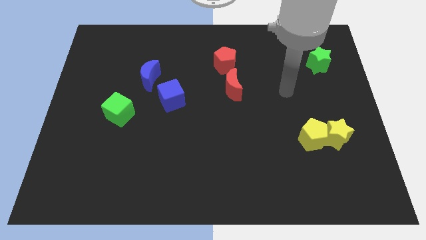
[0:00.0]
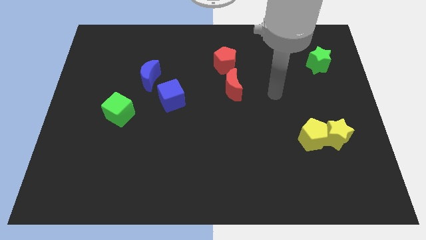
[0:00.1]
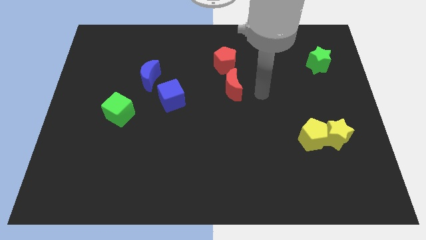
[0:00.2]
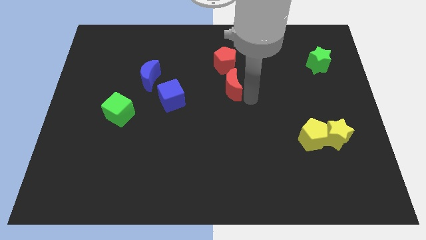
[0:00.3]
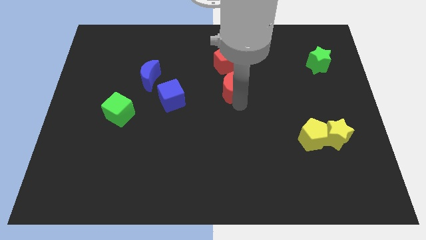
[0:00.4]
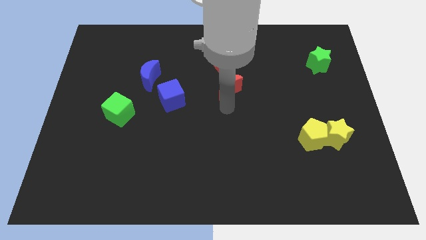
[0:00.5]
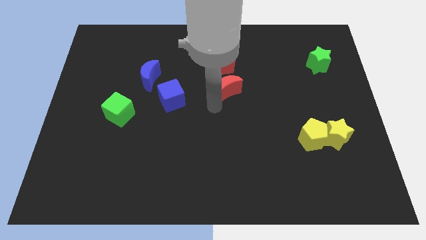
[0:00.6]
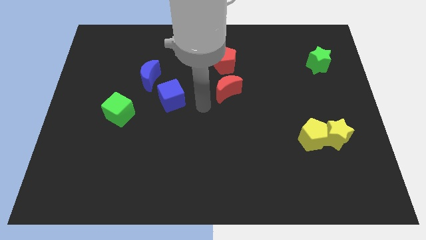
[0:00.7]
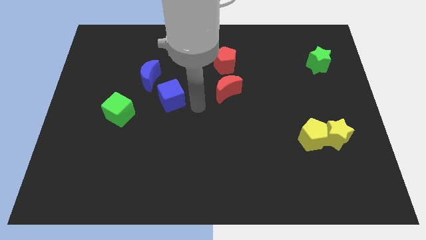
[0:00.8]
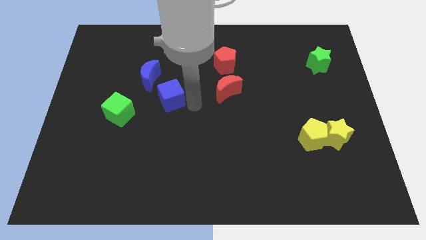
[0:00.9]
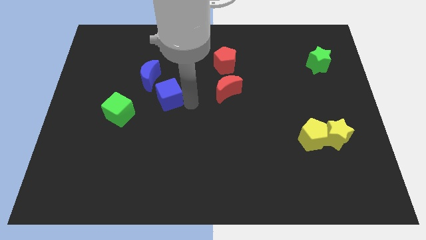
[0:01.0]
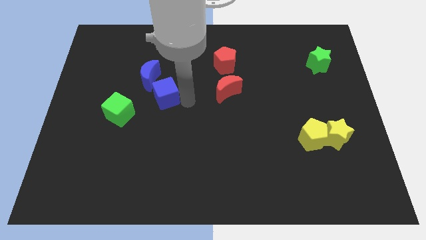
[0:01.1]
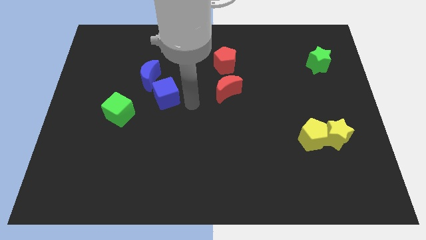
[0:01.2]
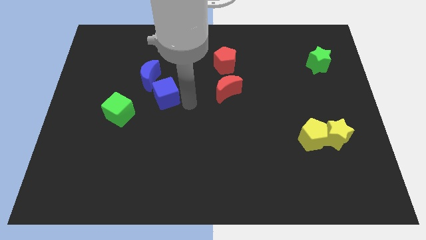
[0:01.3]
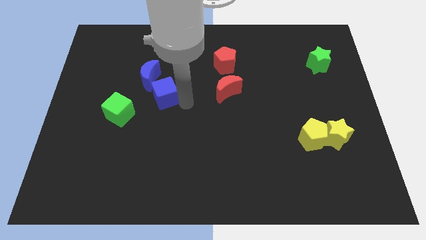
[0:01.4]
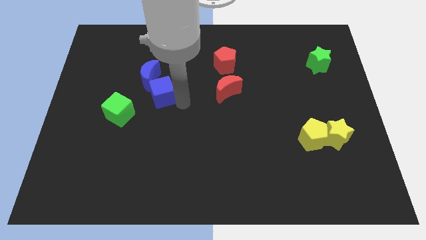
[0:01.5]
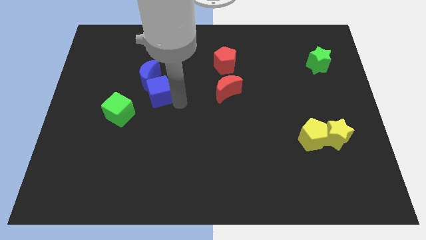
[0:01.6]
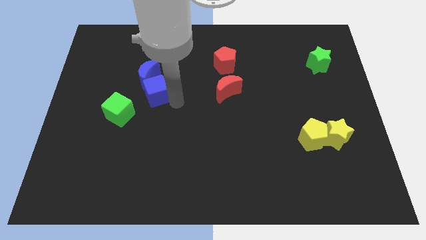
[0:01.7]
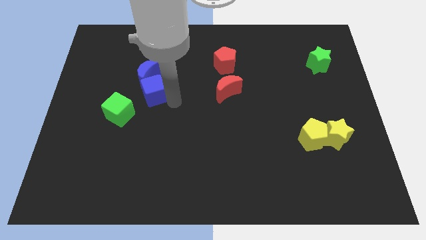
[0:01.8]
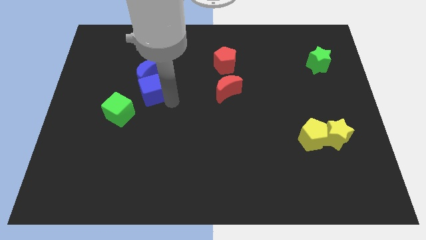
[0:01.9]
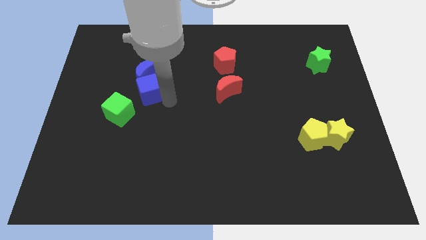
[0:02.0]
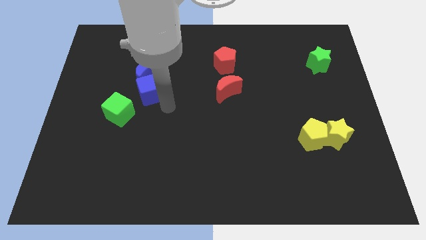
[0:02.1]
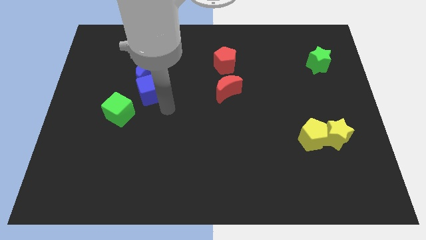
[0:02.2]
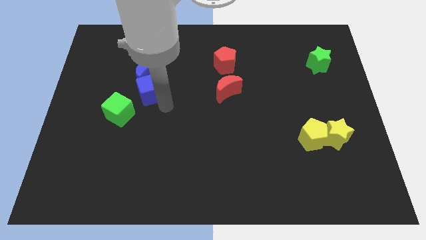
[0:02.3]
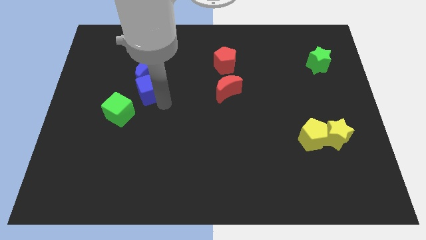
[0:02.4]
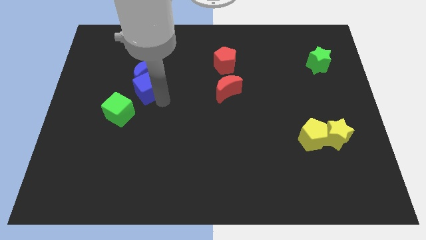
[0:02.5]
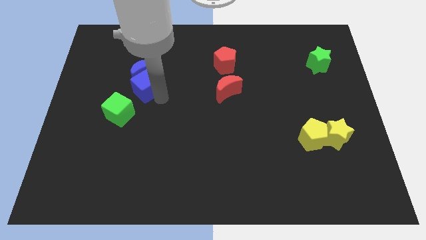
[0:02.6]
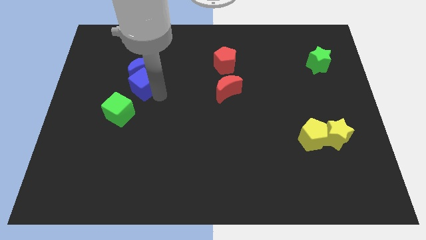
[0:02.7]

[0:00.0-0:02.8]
move the blue cube a little diagonally upwards and left

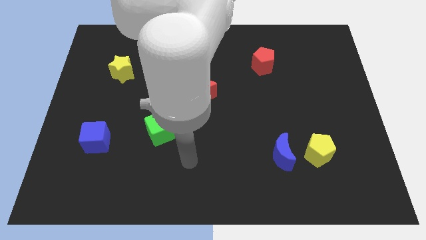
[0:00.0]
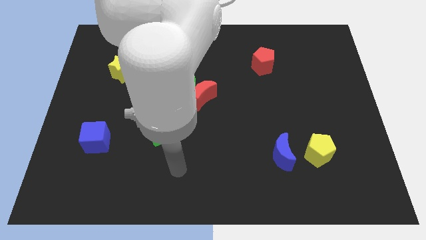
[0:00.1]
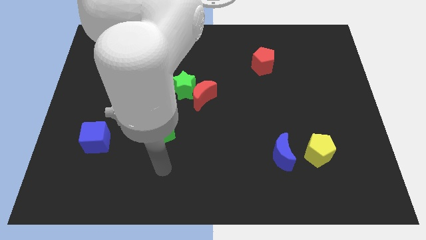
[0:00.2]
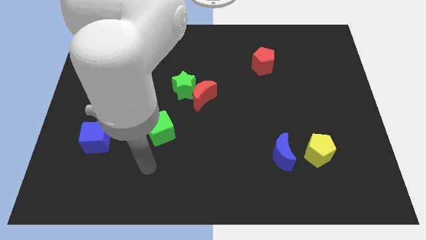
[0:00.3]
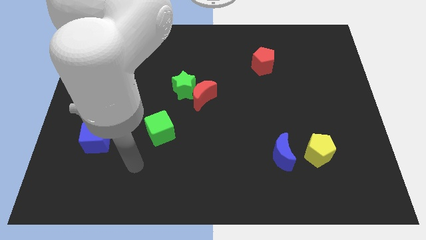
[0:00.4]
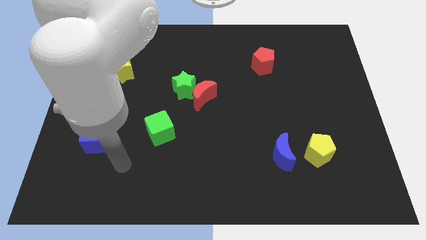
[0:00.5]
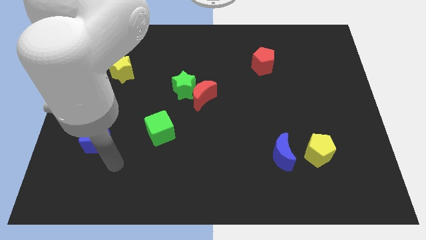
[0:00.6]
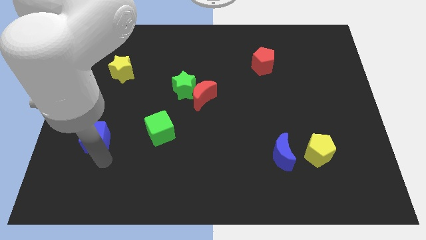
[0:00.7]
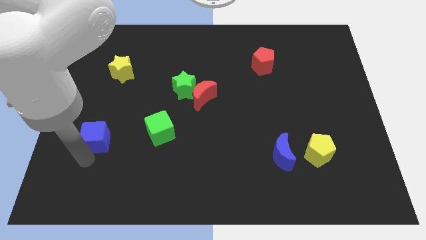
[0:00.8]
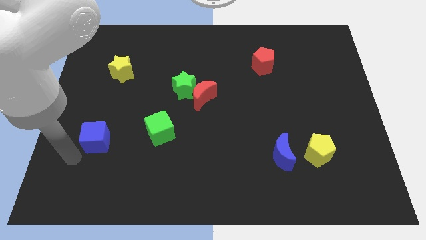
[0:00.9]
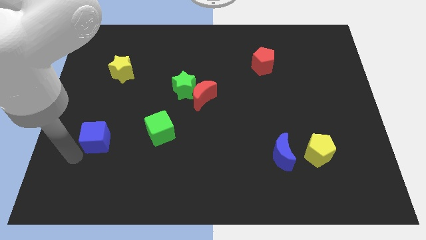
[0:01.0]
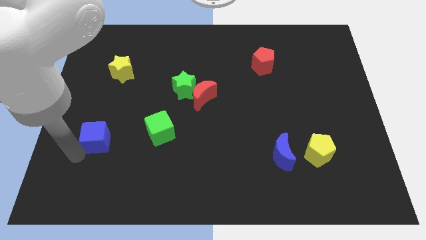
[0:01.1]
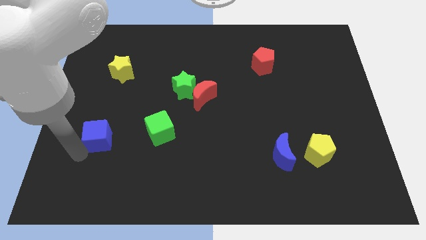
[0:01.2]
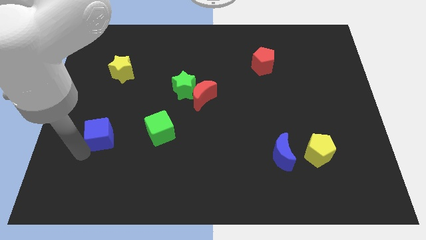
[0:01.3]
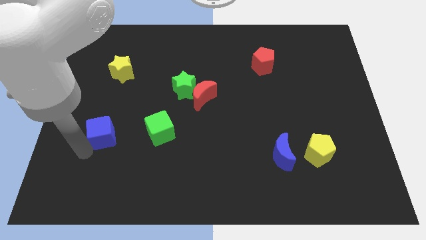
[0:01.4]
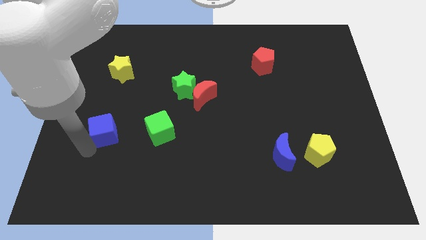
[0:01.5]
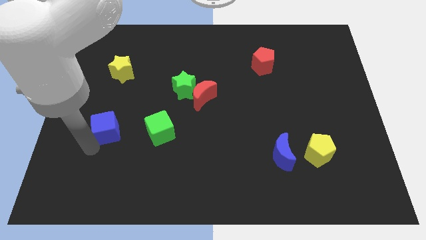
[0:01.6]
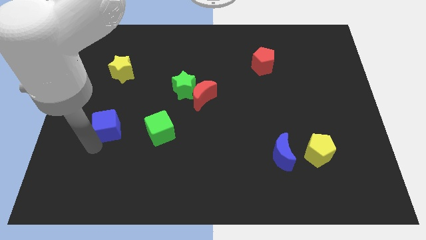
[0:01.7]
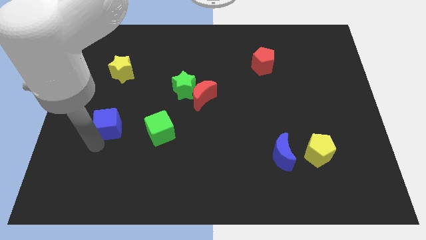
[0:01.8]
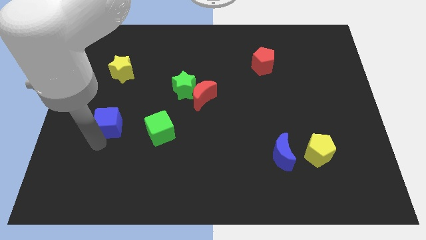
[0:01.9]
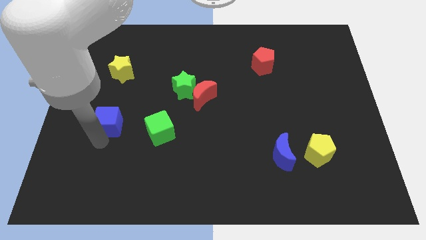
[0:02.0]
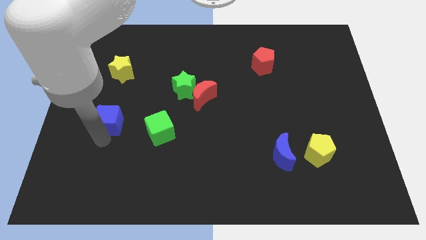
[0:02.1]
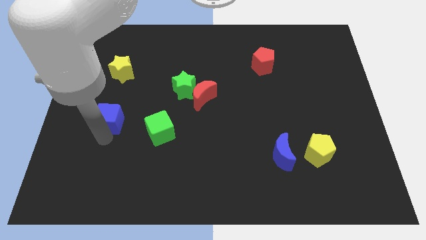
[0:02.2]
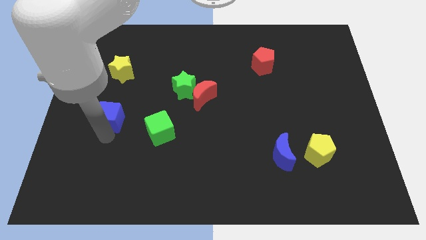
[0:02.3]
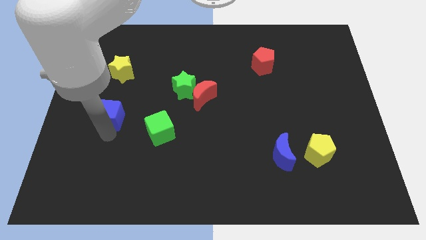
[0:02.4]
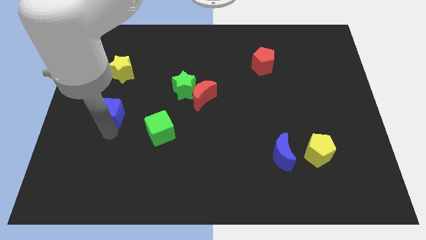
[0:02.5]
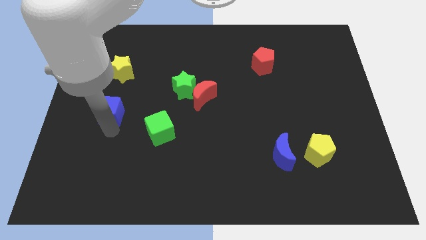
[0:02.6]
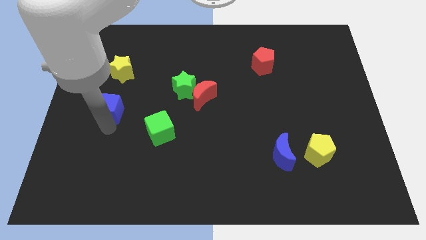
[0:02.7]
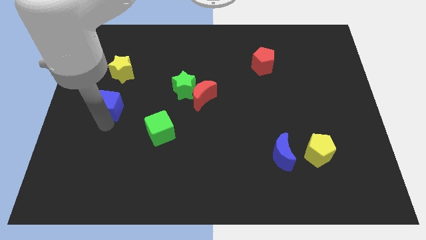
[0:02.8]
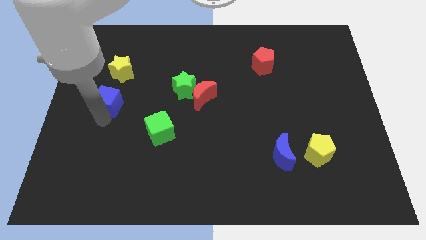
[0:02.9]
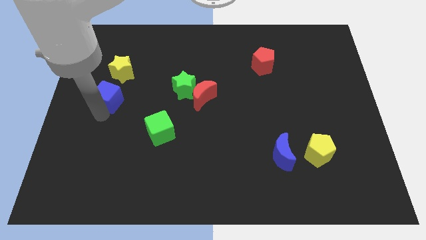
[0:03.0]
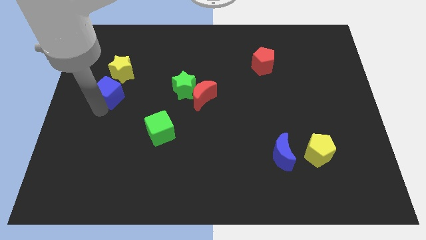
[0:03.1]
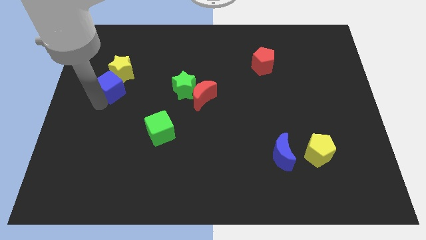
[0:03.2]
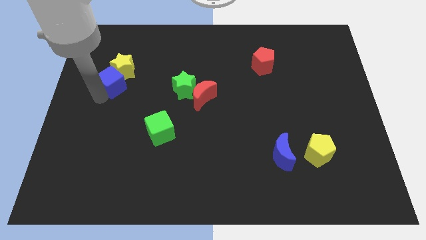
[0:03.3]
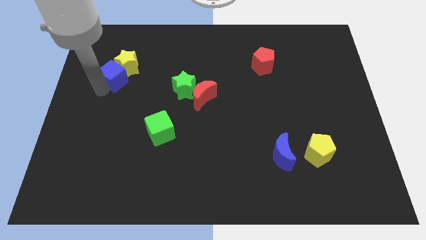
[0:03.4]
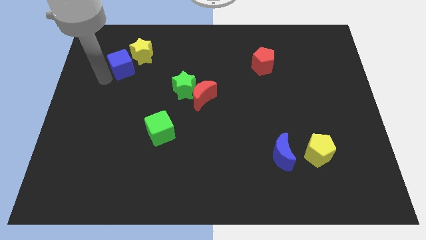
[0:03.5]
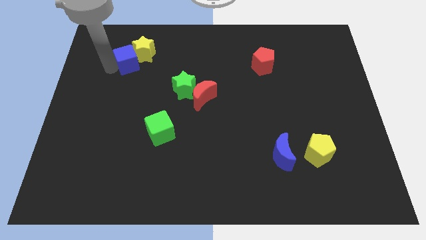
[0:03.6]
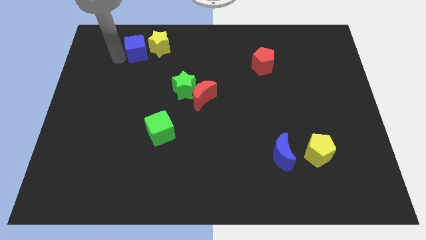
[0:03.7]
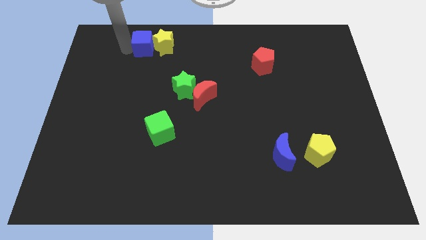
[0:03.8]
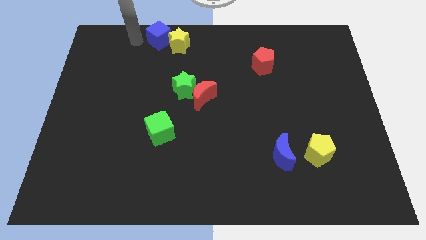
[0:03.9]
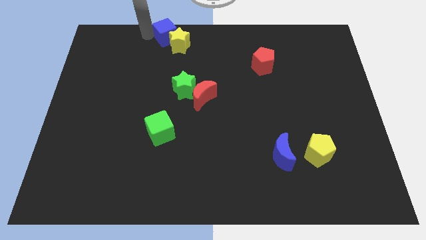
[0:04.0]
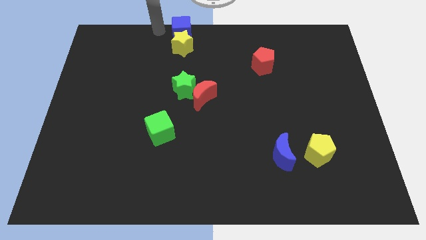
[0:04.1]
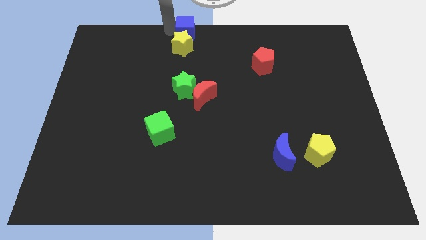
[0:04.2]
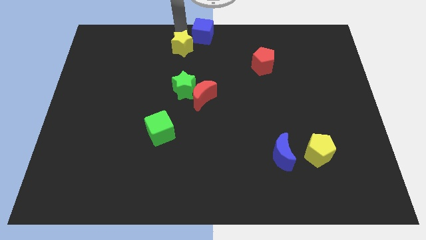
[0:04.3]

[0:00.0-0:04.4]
push the blue cube up and to the right

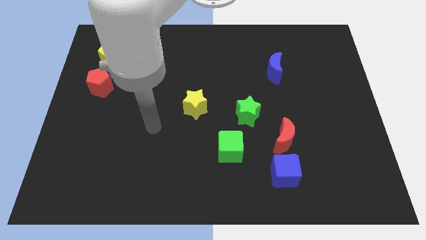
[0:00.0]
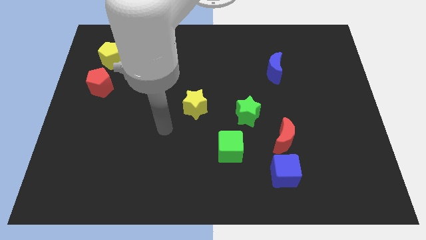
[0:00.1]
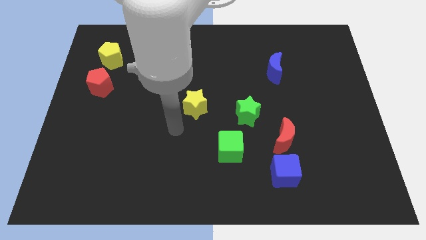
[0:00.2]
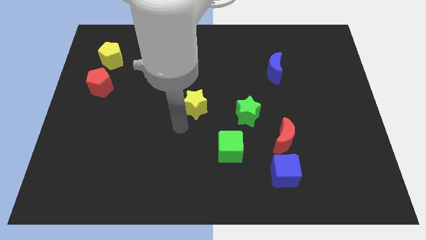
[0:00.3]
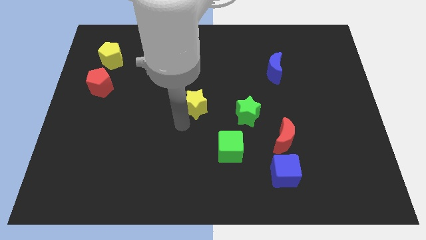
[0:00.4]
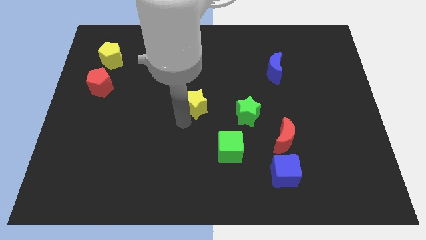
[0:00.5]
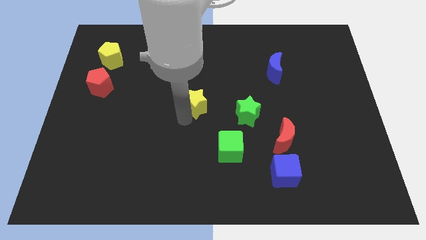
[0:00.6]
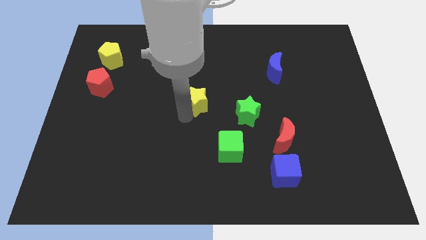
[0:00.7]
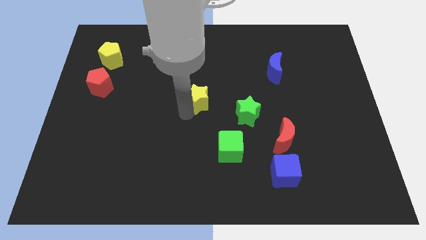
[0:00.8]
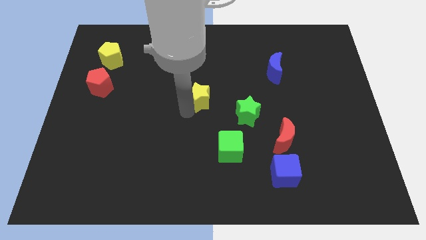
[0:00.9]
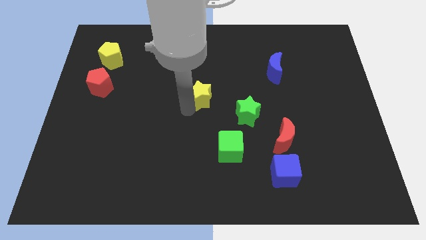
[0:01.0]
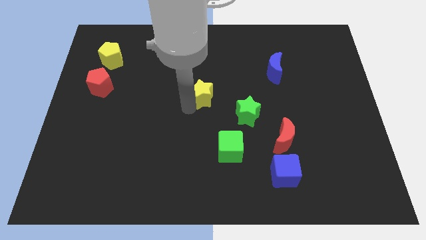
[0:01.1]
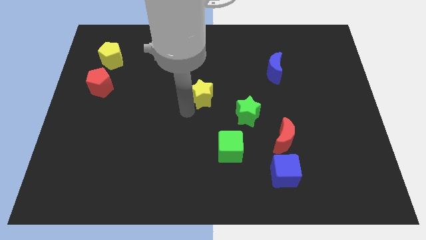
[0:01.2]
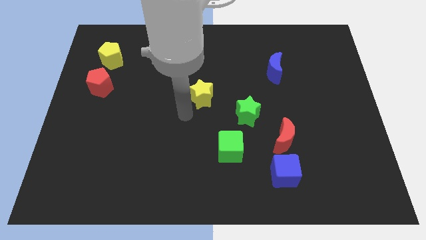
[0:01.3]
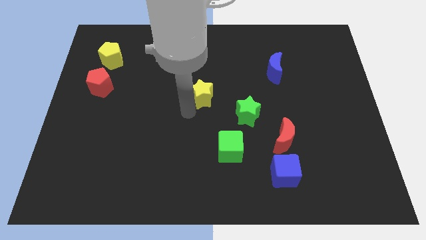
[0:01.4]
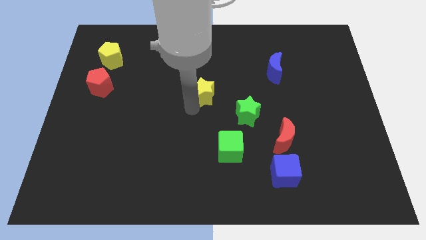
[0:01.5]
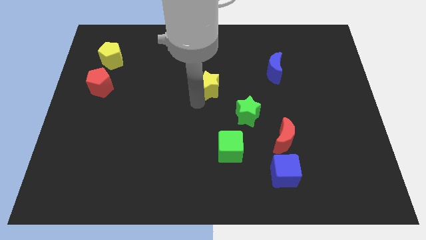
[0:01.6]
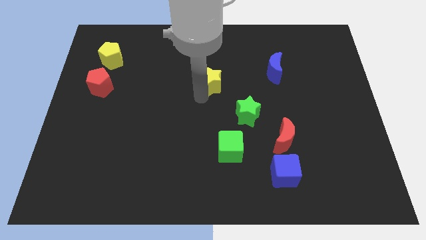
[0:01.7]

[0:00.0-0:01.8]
slide the yellow star upwards and right somewhat
